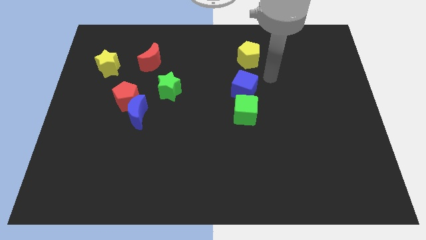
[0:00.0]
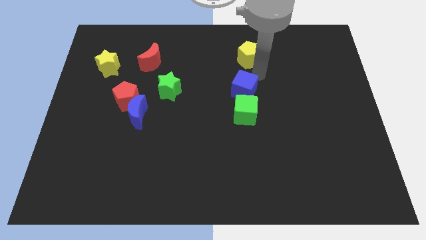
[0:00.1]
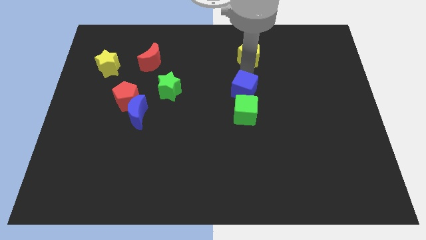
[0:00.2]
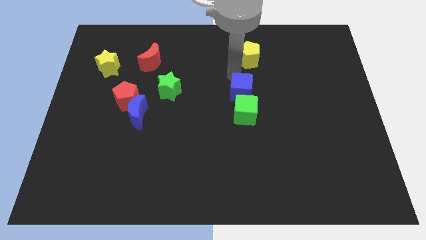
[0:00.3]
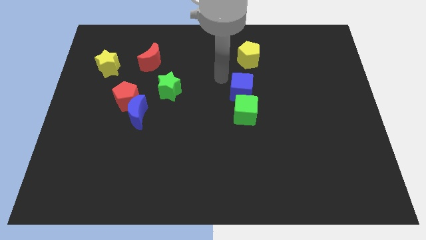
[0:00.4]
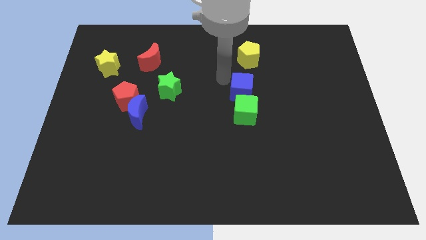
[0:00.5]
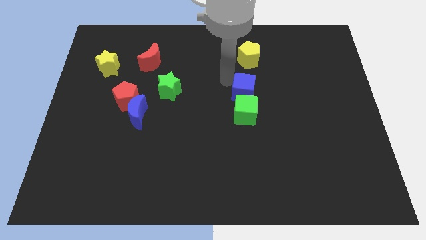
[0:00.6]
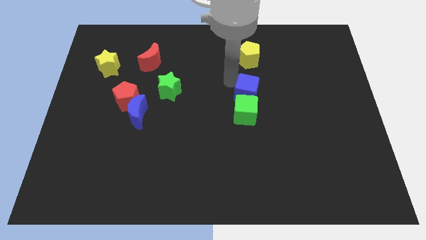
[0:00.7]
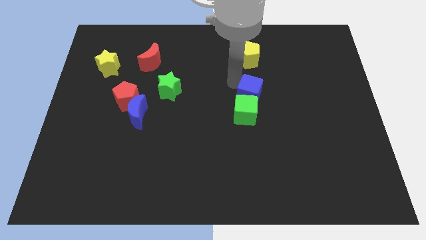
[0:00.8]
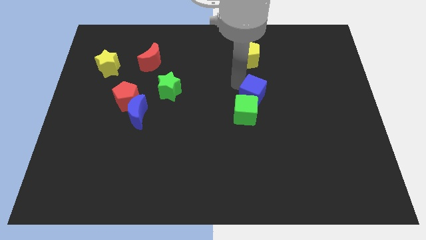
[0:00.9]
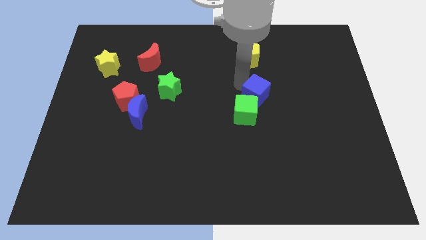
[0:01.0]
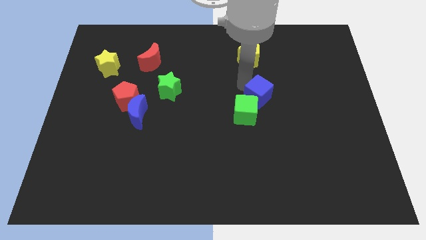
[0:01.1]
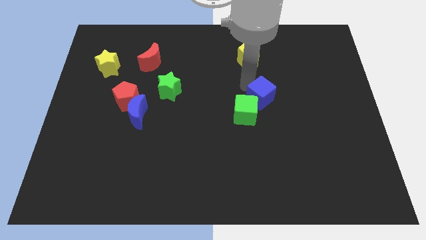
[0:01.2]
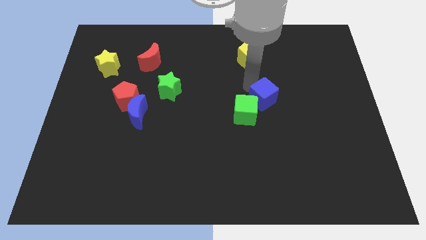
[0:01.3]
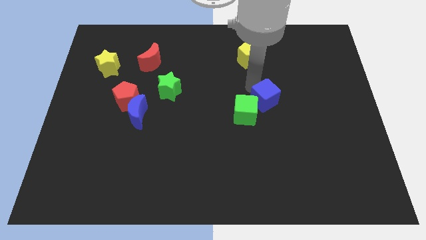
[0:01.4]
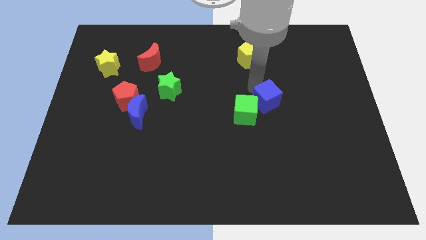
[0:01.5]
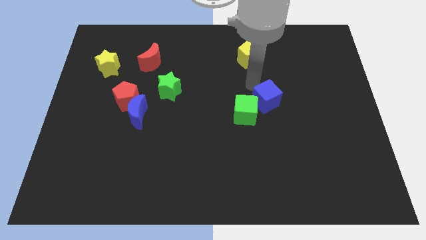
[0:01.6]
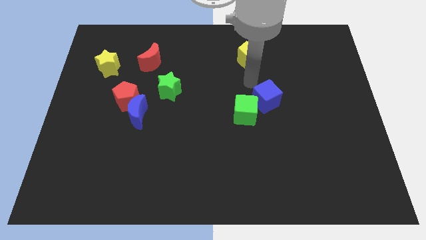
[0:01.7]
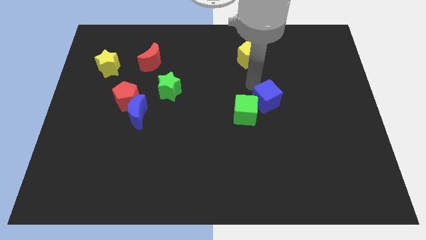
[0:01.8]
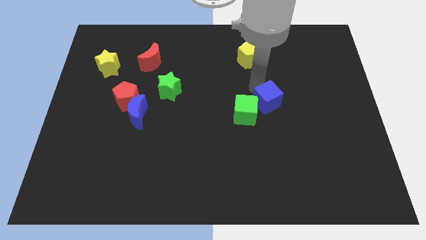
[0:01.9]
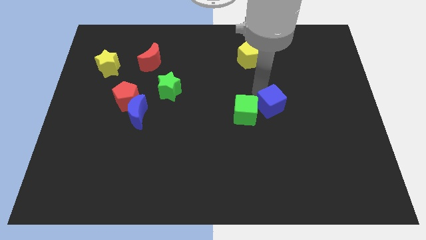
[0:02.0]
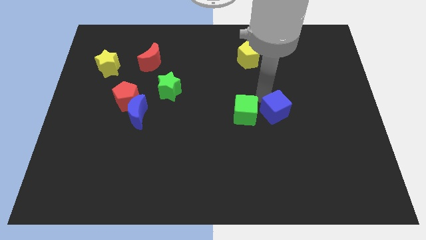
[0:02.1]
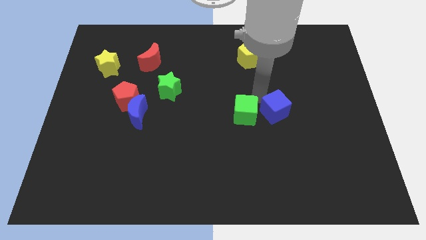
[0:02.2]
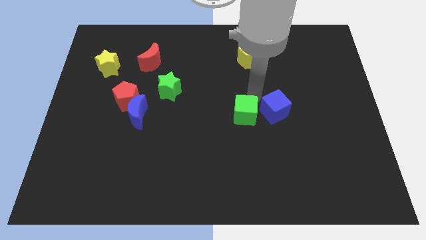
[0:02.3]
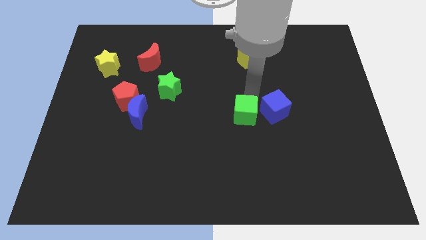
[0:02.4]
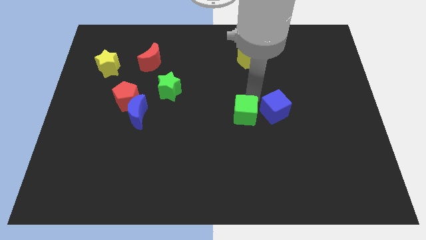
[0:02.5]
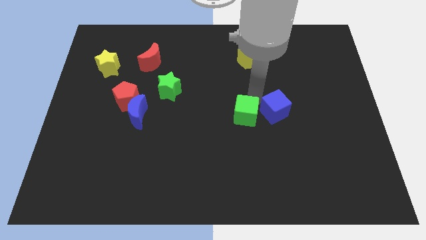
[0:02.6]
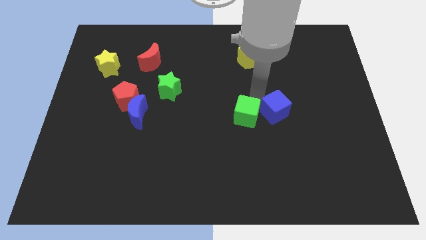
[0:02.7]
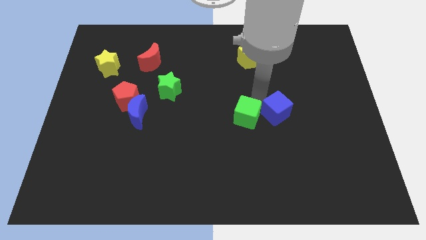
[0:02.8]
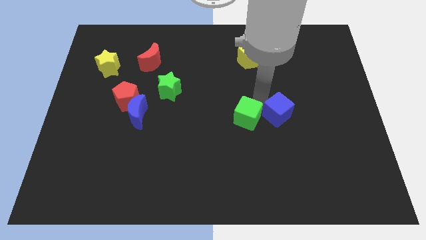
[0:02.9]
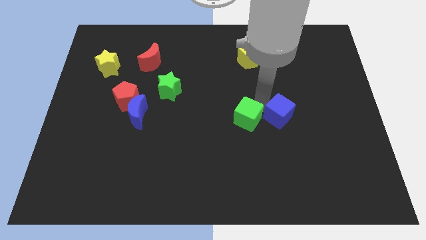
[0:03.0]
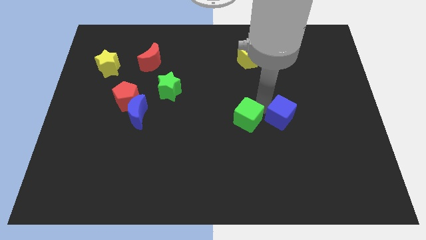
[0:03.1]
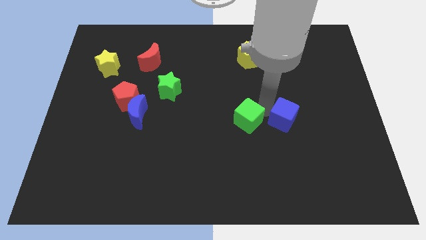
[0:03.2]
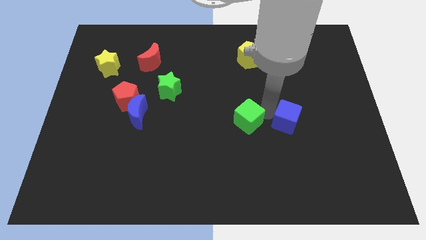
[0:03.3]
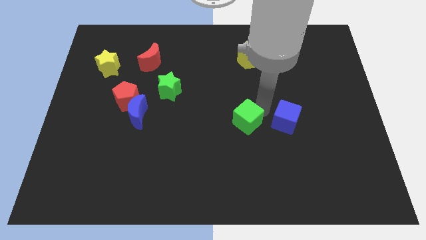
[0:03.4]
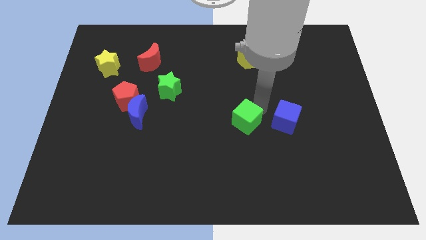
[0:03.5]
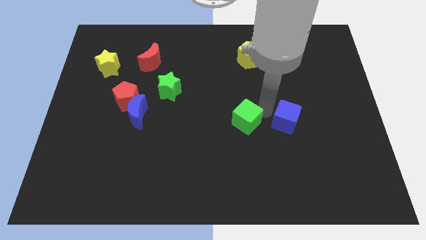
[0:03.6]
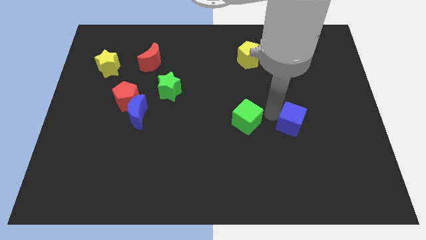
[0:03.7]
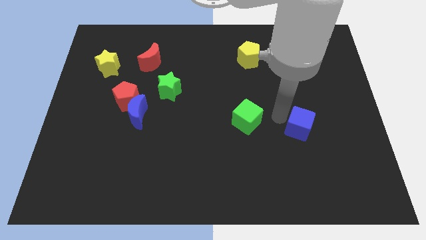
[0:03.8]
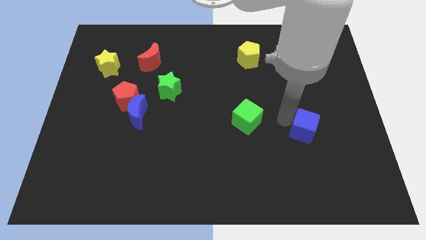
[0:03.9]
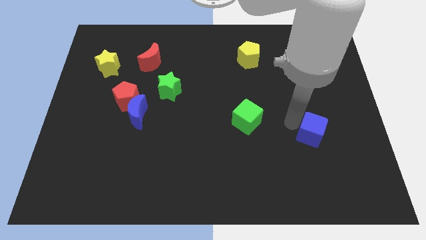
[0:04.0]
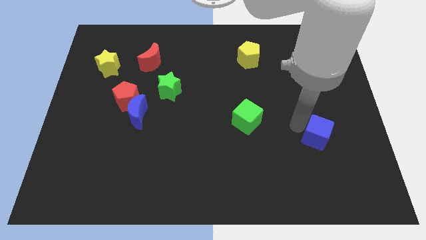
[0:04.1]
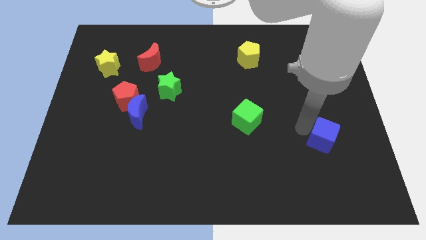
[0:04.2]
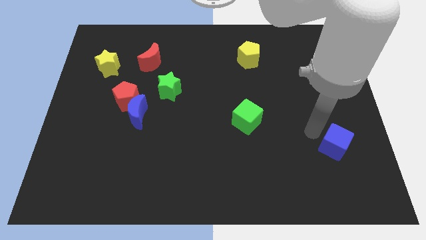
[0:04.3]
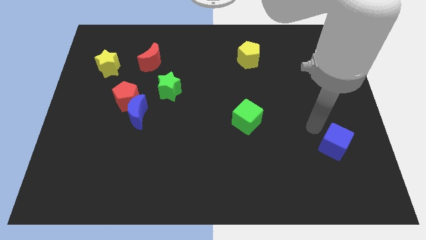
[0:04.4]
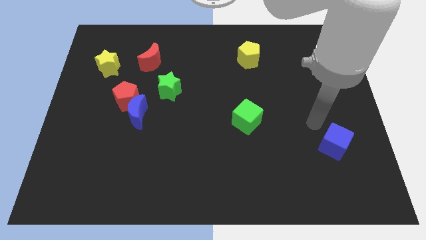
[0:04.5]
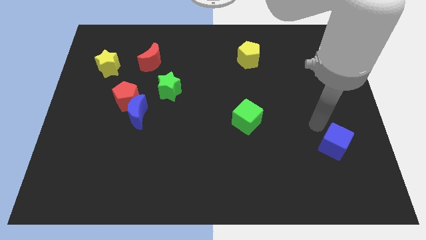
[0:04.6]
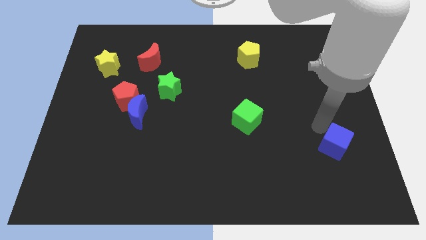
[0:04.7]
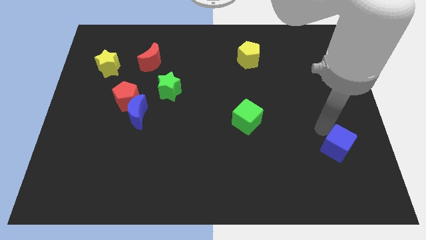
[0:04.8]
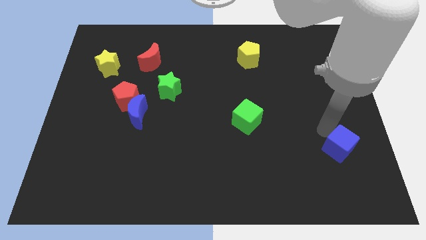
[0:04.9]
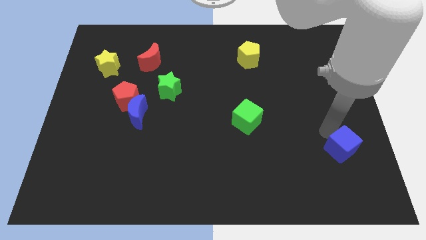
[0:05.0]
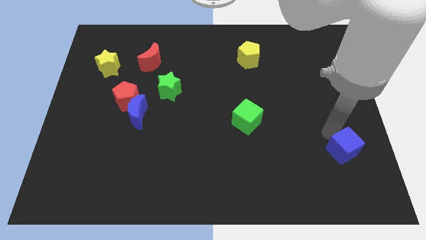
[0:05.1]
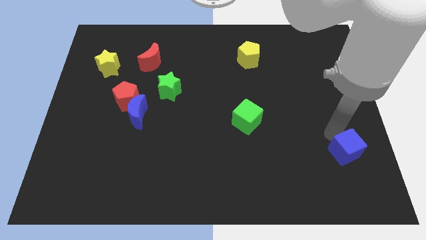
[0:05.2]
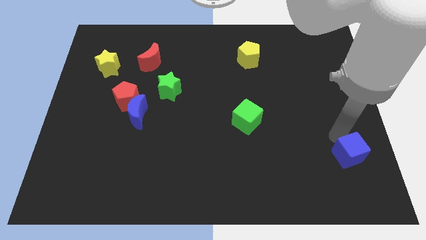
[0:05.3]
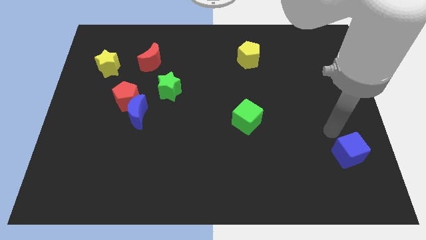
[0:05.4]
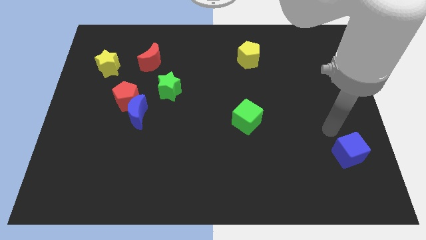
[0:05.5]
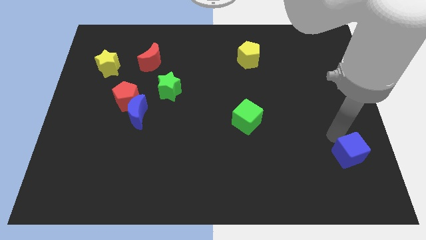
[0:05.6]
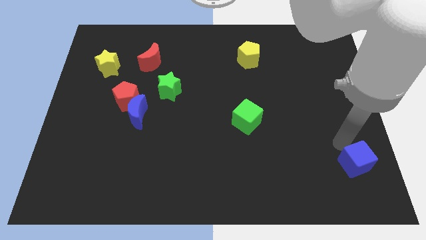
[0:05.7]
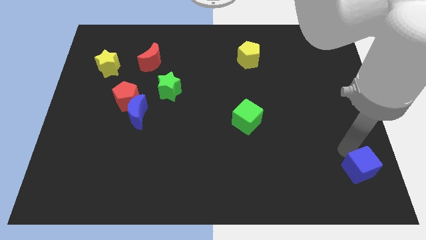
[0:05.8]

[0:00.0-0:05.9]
slide the blue cube to the bottom right
